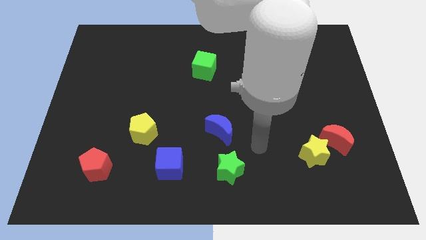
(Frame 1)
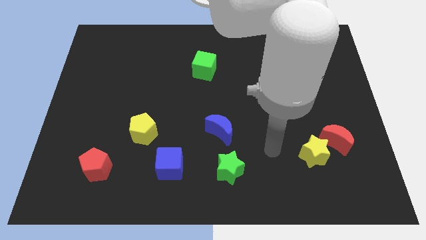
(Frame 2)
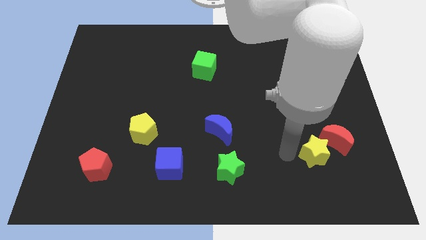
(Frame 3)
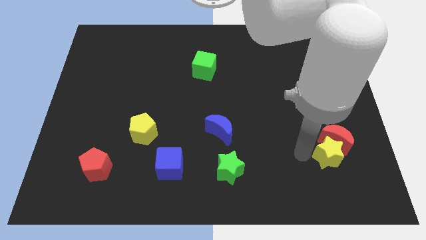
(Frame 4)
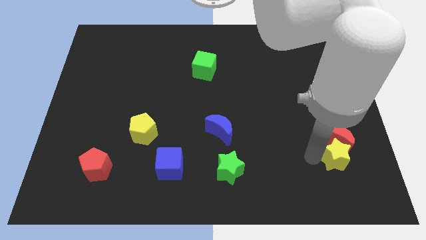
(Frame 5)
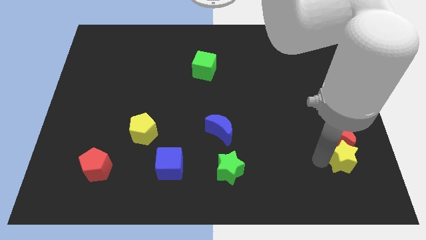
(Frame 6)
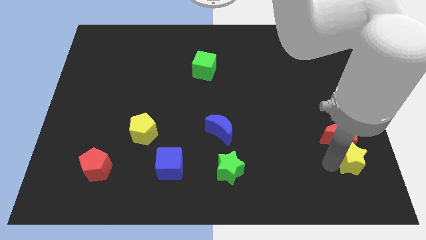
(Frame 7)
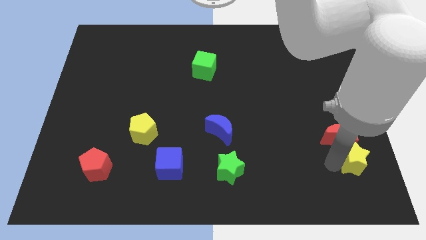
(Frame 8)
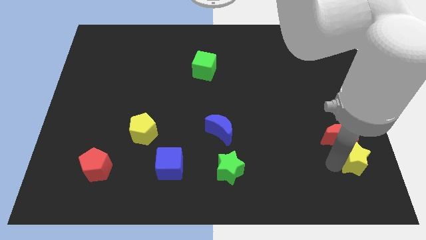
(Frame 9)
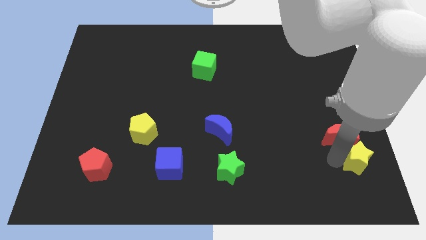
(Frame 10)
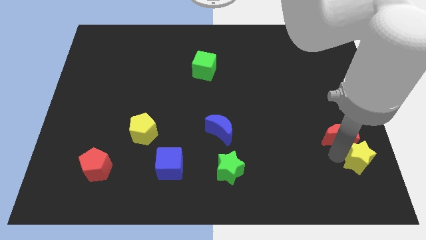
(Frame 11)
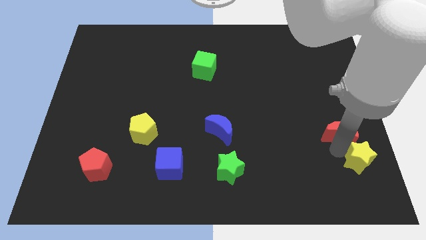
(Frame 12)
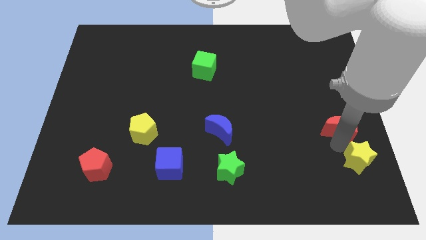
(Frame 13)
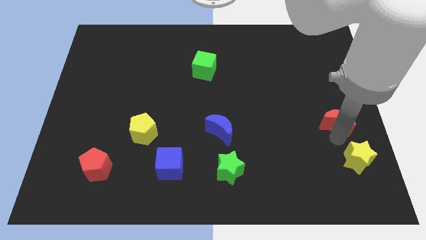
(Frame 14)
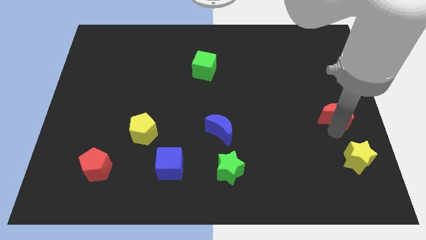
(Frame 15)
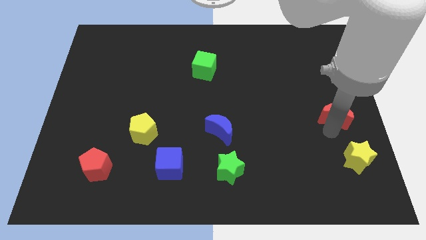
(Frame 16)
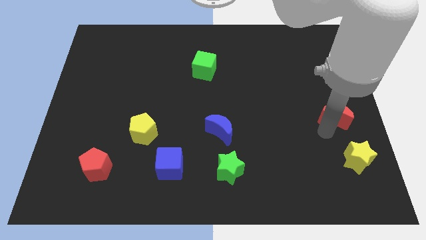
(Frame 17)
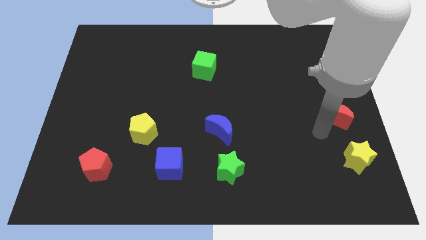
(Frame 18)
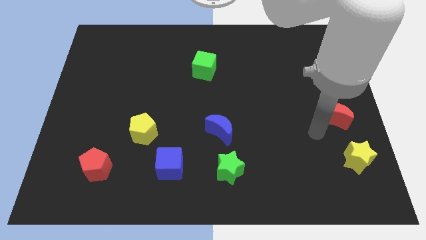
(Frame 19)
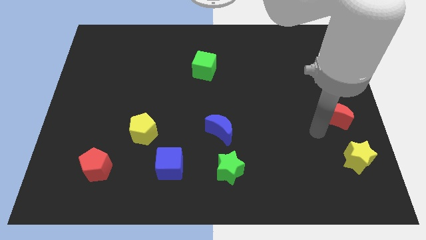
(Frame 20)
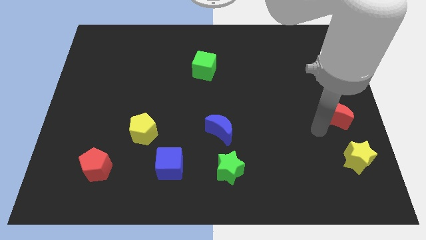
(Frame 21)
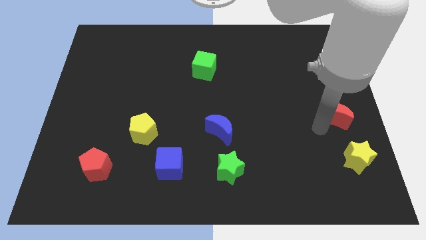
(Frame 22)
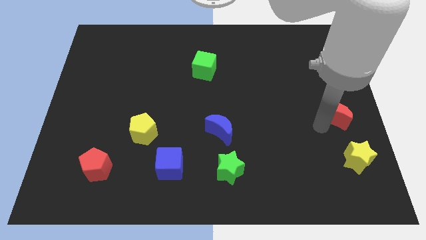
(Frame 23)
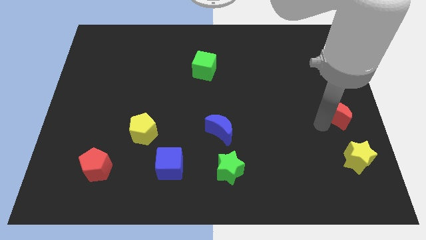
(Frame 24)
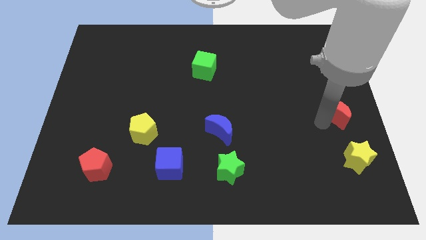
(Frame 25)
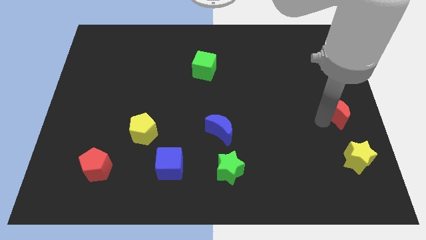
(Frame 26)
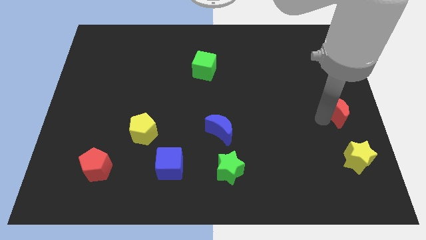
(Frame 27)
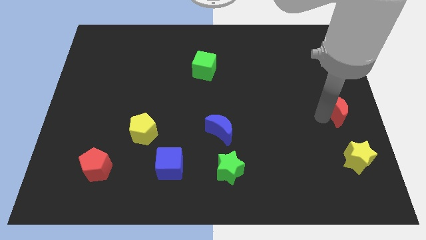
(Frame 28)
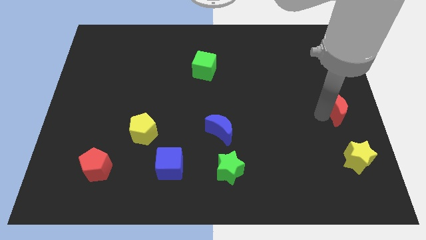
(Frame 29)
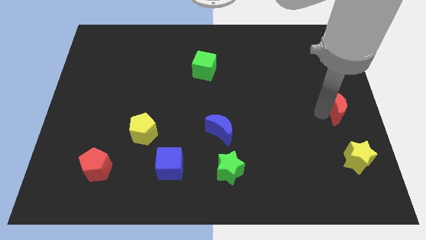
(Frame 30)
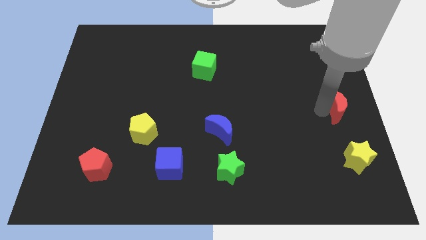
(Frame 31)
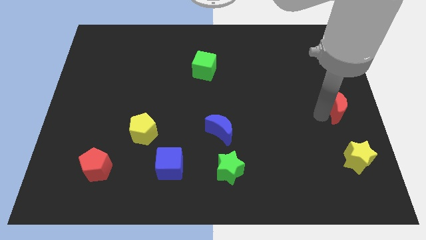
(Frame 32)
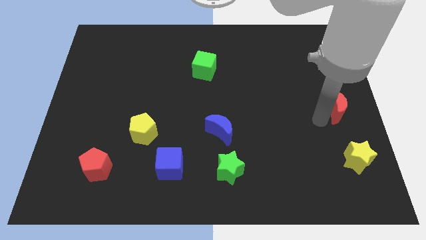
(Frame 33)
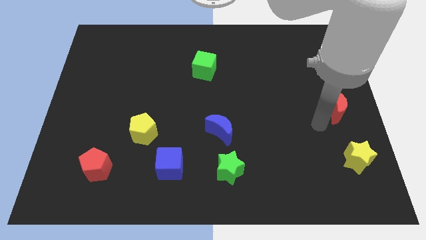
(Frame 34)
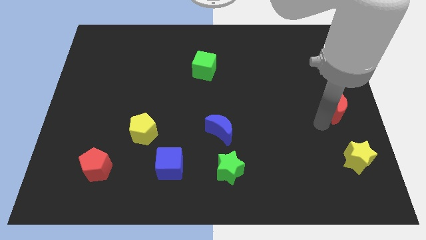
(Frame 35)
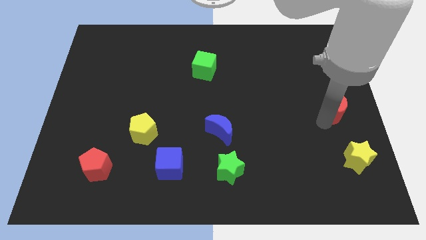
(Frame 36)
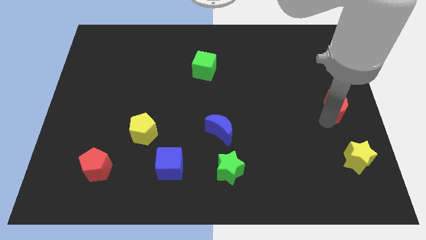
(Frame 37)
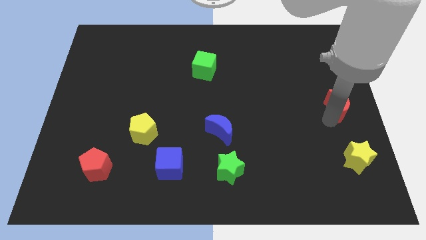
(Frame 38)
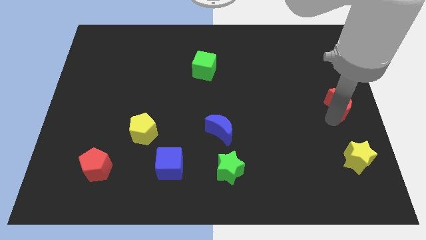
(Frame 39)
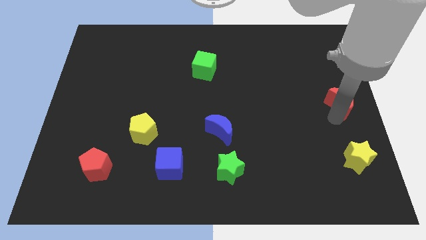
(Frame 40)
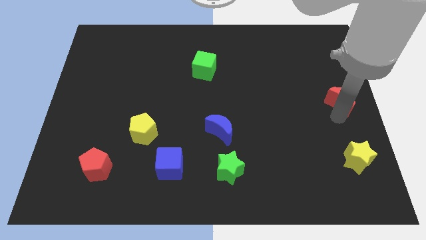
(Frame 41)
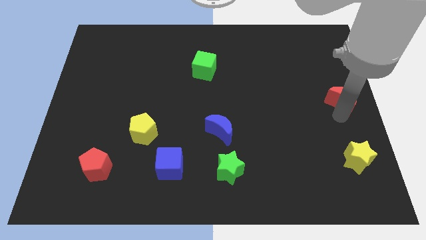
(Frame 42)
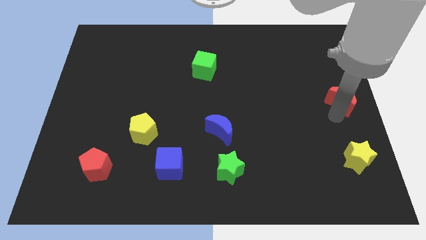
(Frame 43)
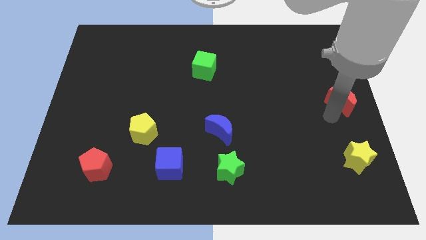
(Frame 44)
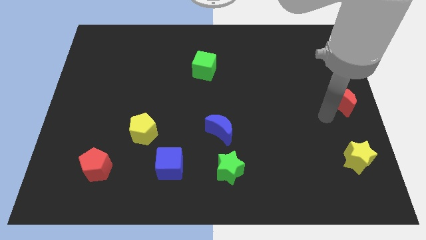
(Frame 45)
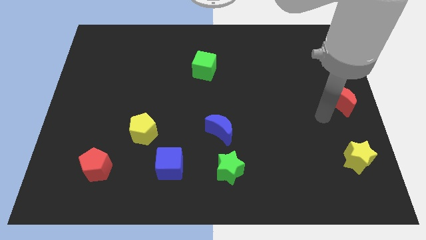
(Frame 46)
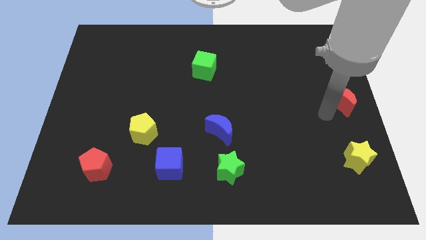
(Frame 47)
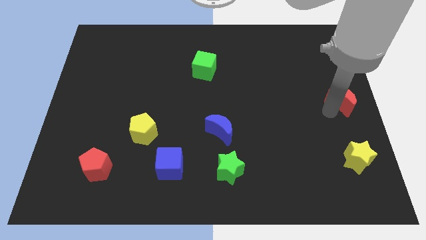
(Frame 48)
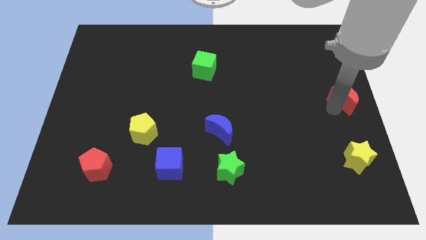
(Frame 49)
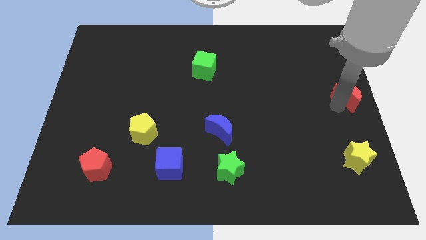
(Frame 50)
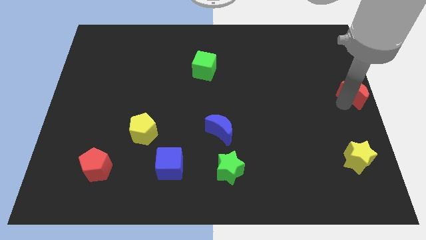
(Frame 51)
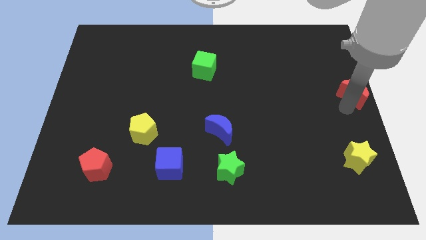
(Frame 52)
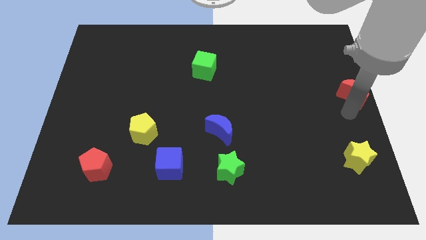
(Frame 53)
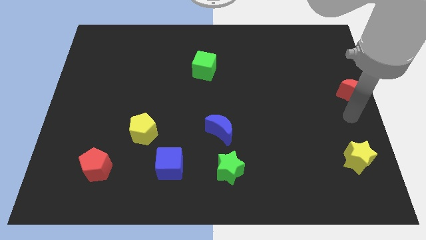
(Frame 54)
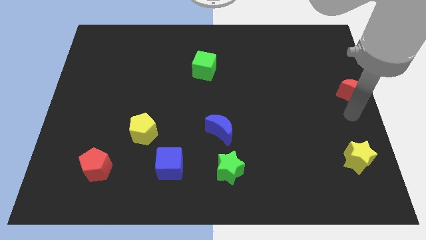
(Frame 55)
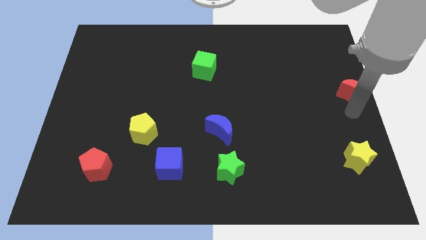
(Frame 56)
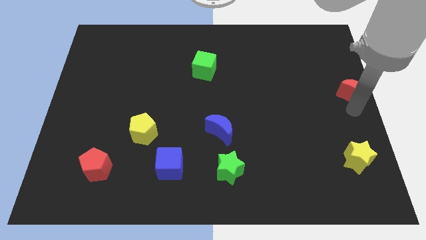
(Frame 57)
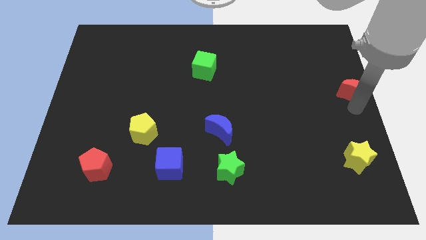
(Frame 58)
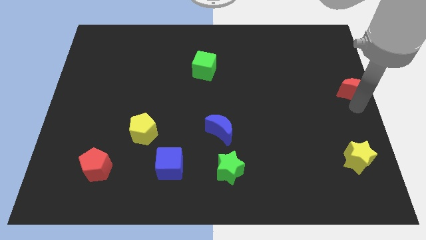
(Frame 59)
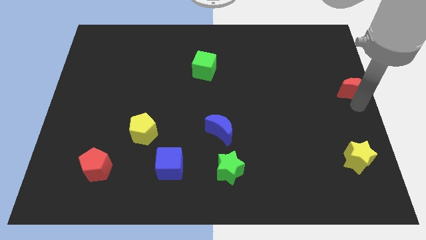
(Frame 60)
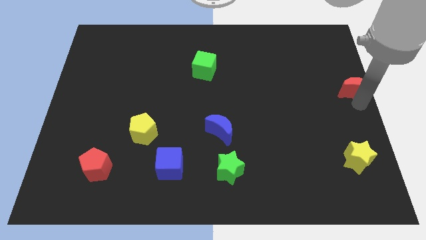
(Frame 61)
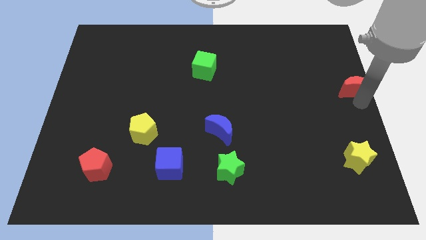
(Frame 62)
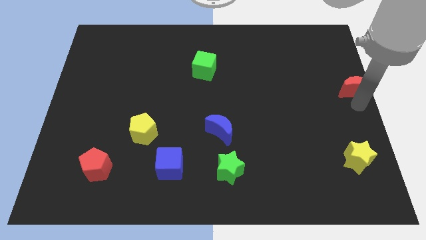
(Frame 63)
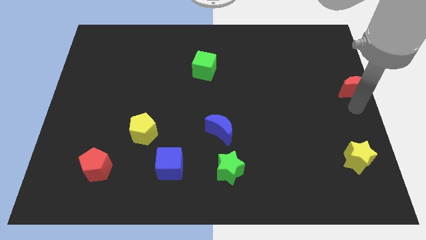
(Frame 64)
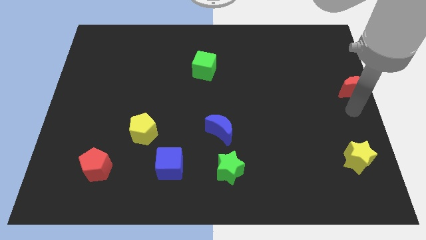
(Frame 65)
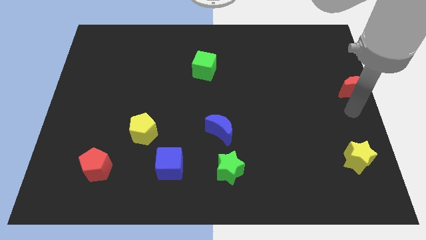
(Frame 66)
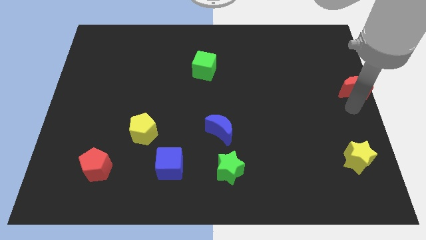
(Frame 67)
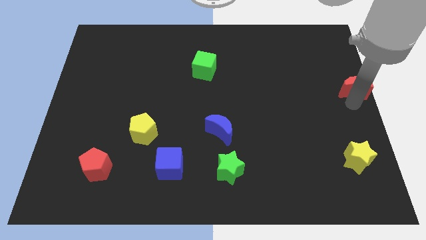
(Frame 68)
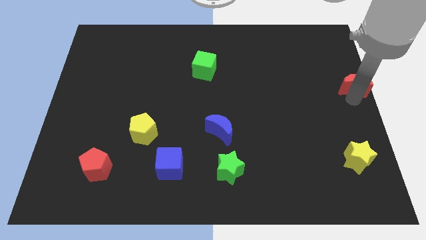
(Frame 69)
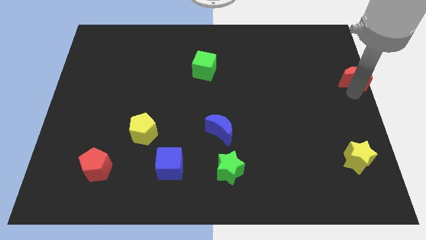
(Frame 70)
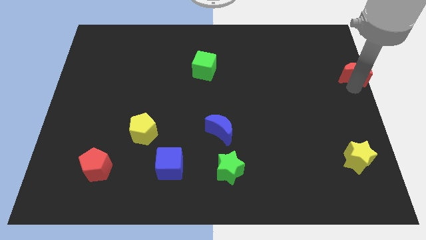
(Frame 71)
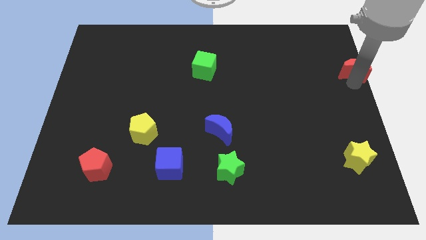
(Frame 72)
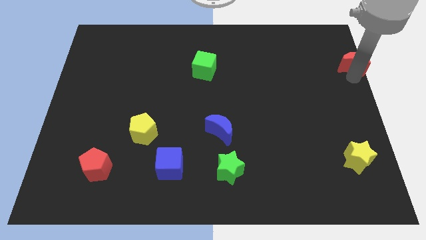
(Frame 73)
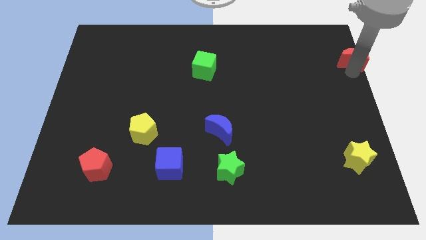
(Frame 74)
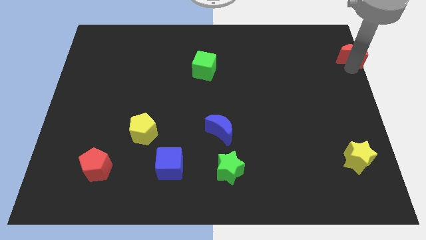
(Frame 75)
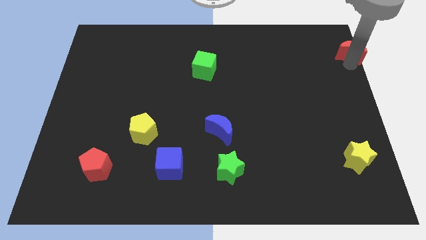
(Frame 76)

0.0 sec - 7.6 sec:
put the red moon to the top right of the board
